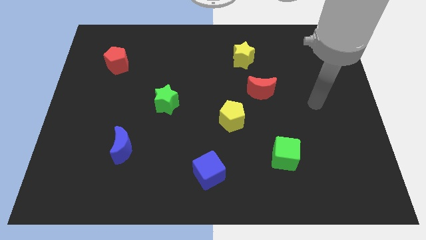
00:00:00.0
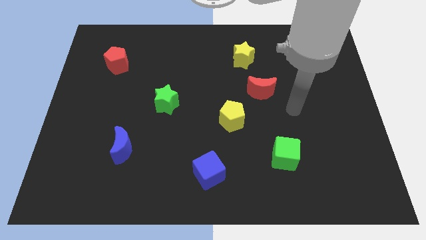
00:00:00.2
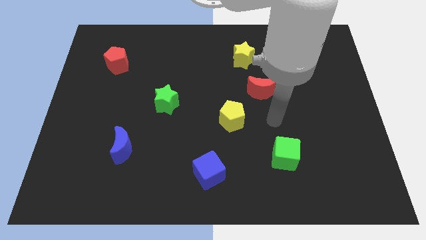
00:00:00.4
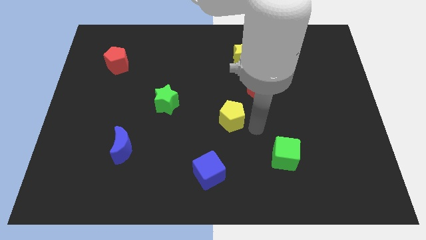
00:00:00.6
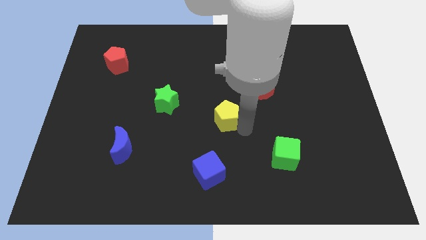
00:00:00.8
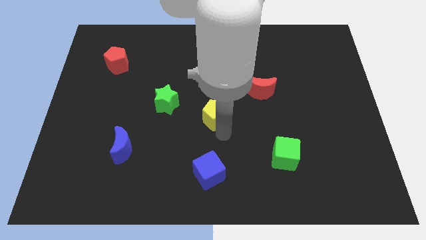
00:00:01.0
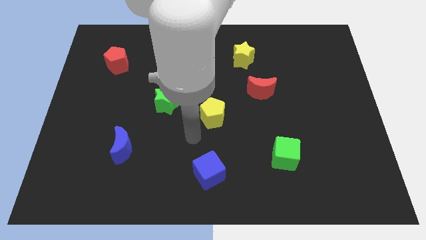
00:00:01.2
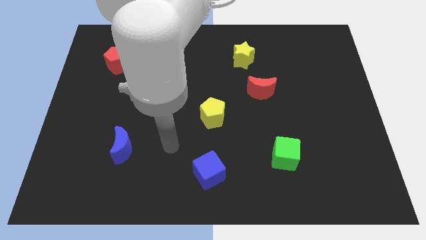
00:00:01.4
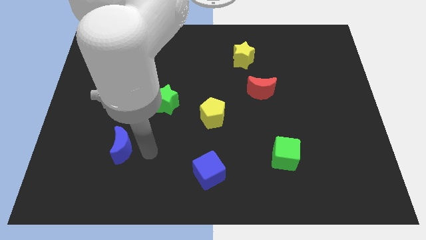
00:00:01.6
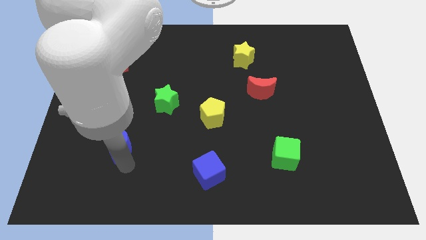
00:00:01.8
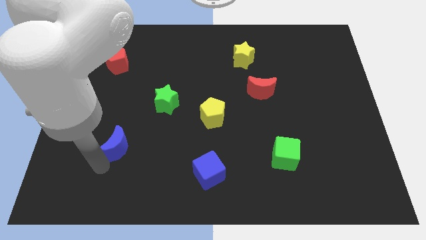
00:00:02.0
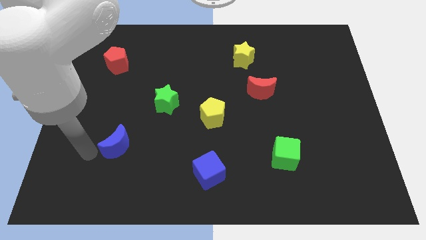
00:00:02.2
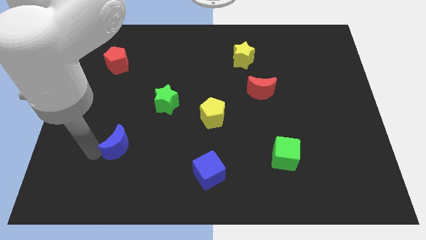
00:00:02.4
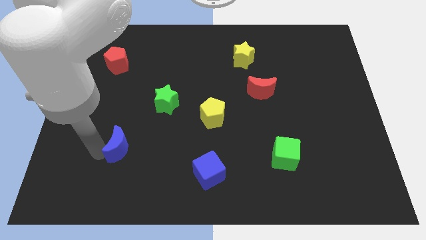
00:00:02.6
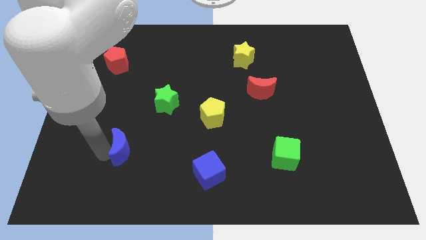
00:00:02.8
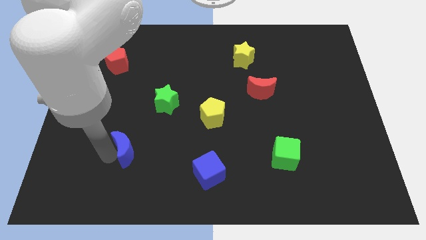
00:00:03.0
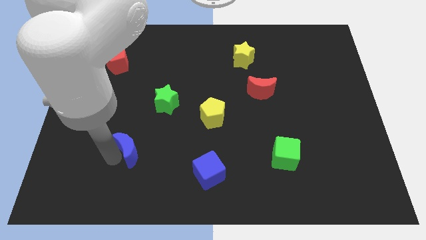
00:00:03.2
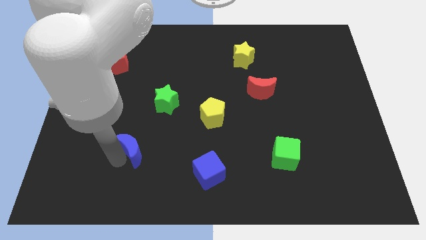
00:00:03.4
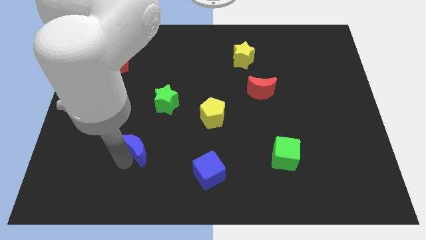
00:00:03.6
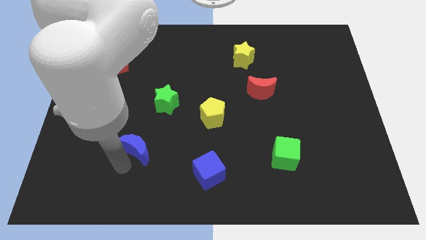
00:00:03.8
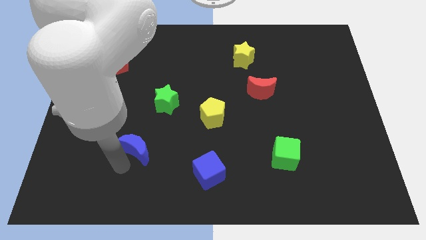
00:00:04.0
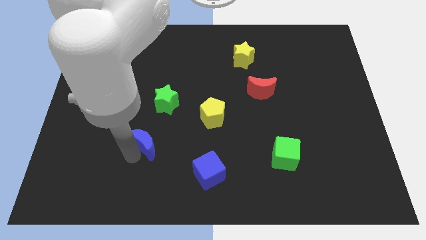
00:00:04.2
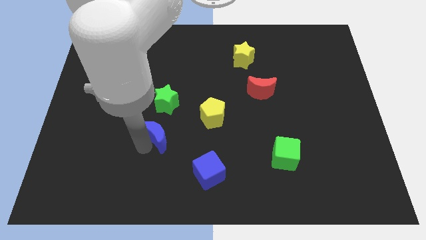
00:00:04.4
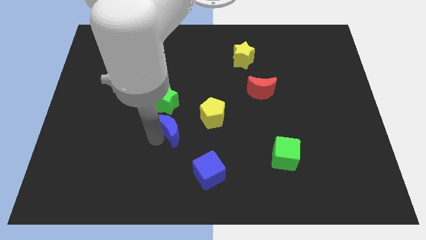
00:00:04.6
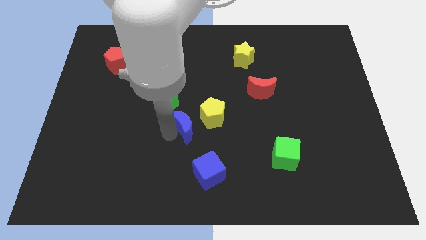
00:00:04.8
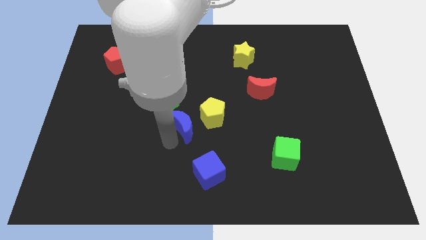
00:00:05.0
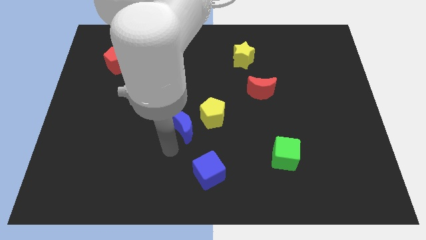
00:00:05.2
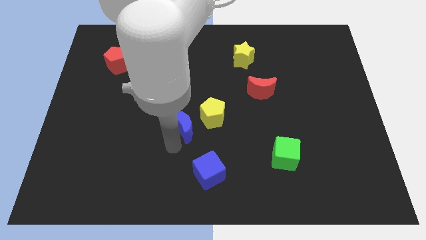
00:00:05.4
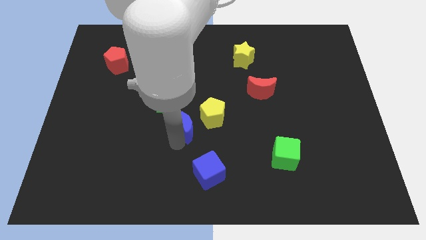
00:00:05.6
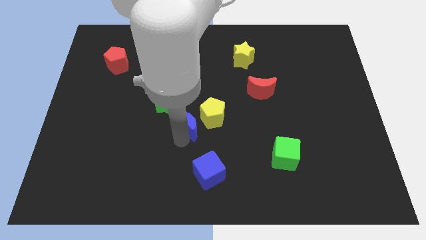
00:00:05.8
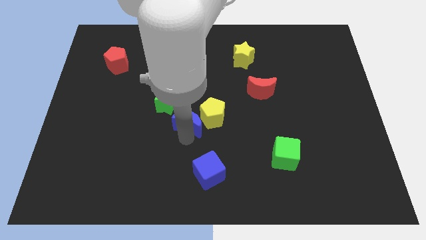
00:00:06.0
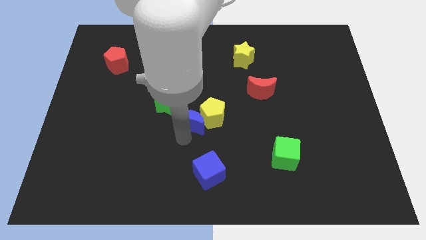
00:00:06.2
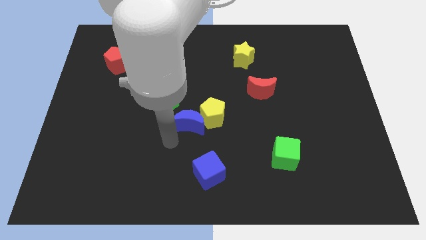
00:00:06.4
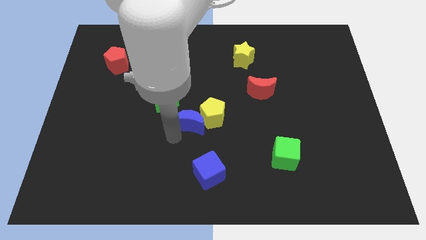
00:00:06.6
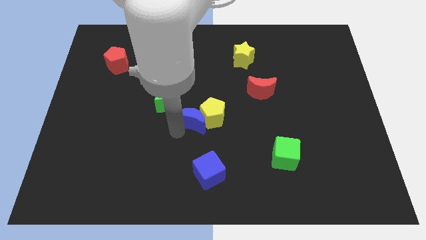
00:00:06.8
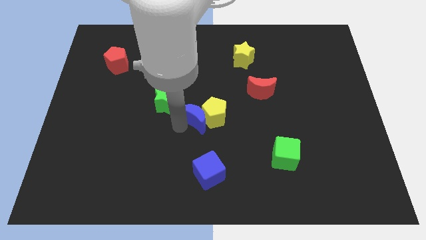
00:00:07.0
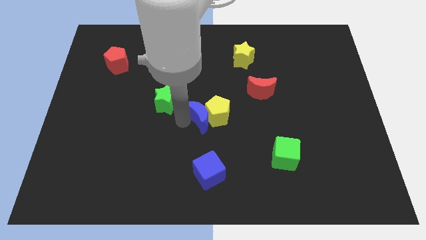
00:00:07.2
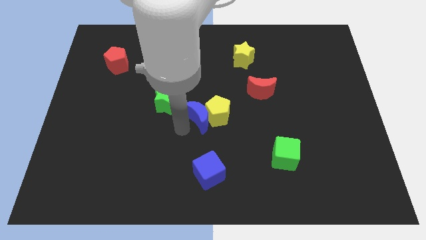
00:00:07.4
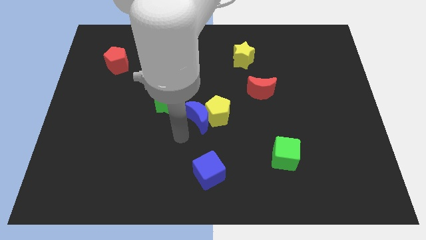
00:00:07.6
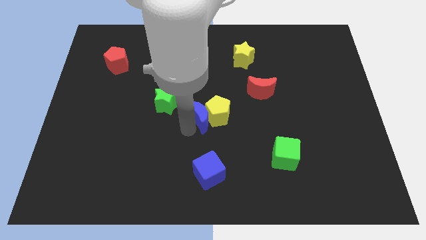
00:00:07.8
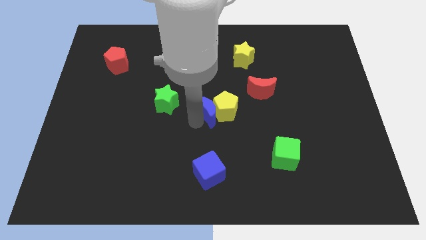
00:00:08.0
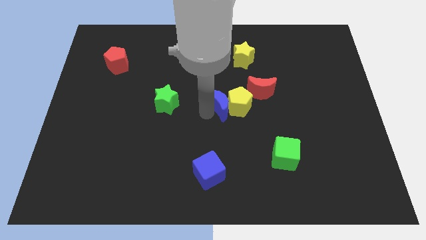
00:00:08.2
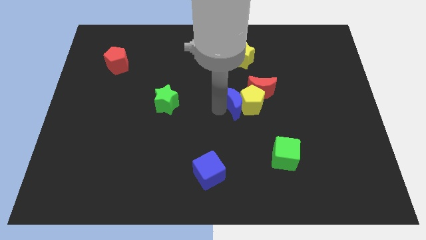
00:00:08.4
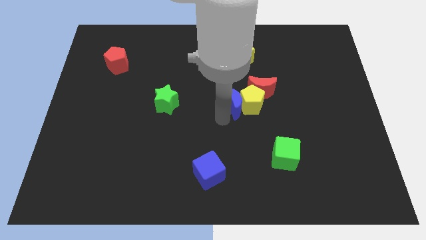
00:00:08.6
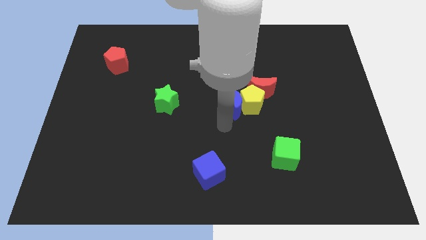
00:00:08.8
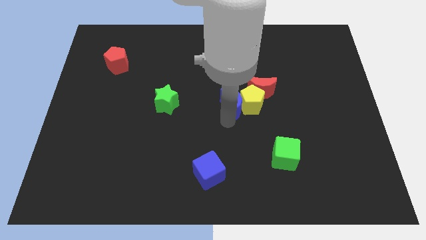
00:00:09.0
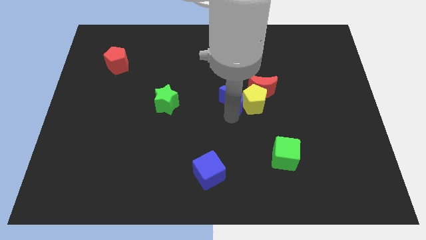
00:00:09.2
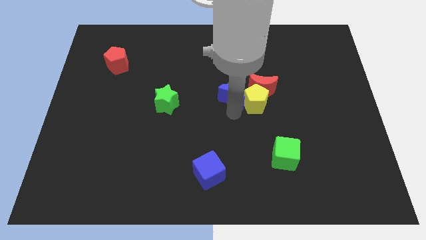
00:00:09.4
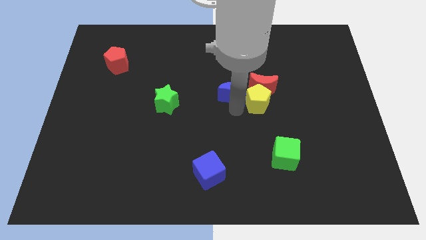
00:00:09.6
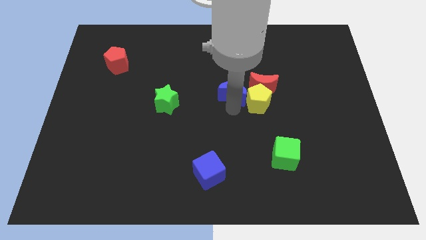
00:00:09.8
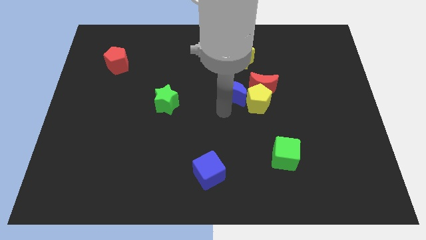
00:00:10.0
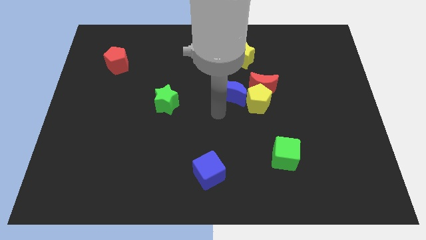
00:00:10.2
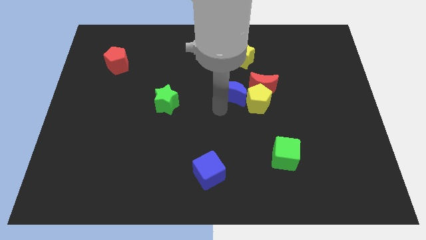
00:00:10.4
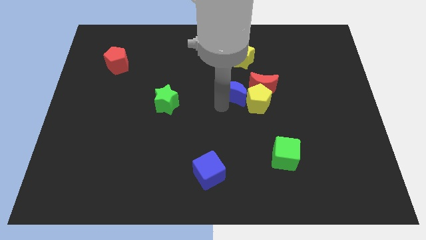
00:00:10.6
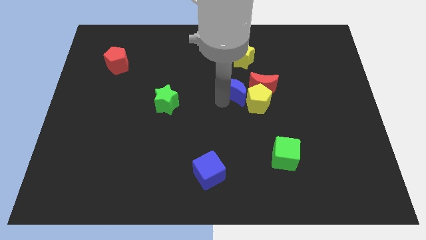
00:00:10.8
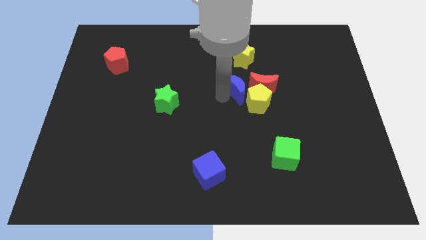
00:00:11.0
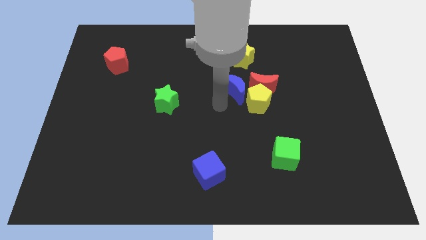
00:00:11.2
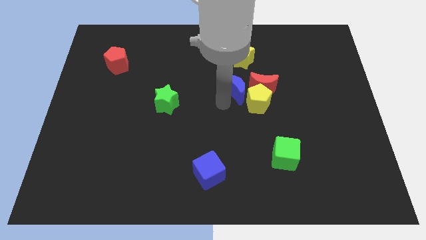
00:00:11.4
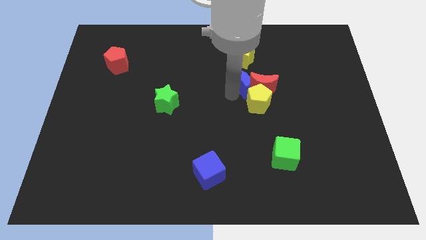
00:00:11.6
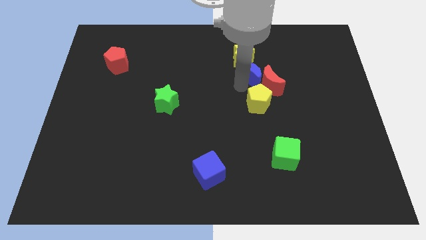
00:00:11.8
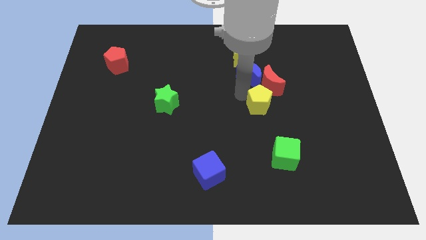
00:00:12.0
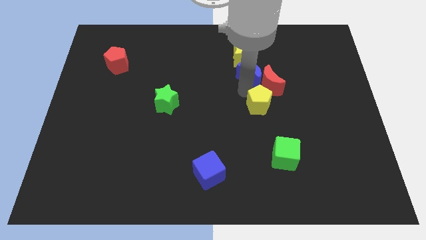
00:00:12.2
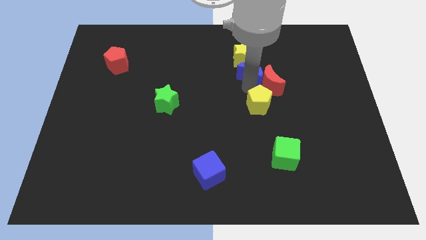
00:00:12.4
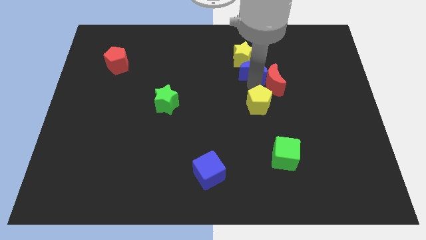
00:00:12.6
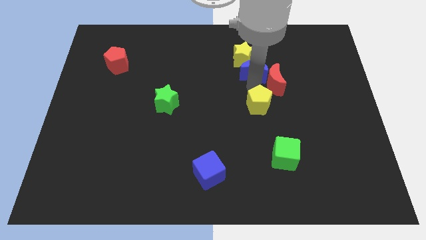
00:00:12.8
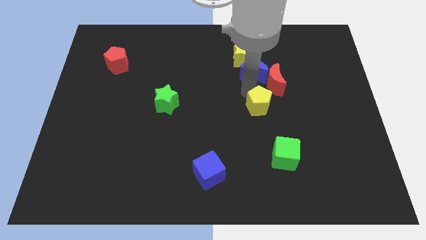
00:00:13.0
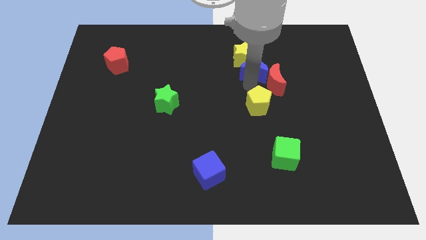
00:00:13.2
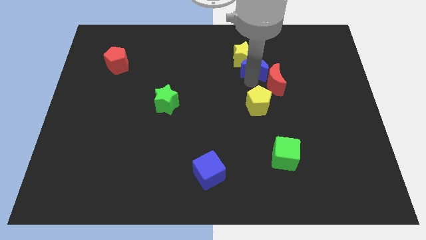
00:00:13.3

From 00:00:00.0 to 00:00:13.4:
move the blue moon to the top side of the red moon

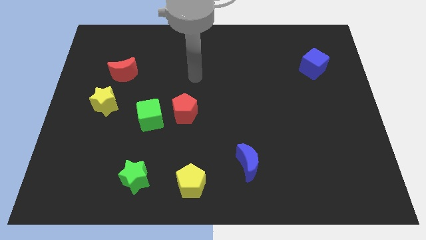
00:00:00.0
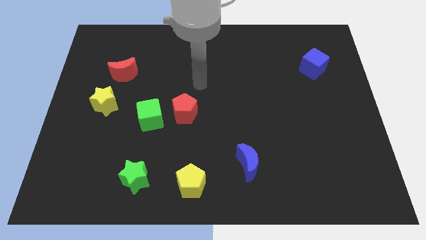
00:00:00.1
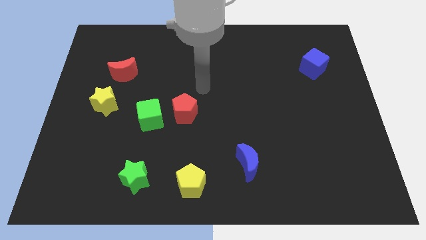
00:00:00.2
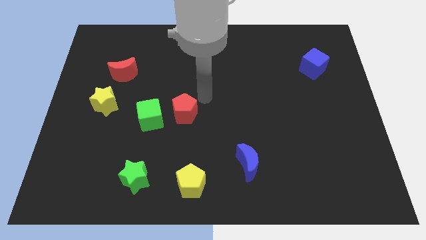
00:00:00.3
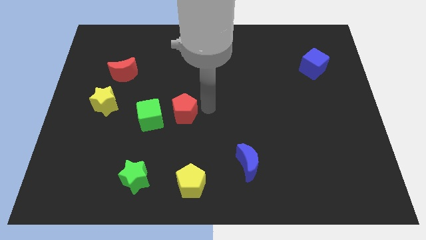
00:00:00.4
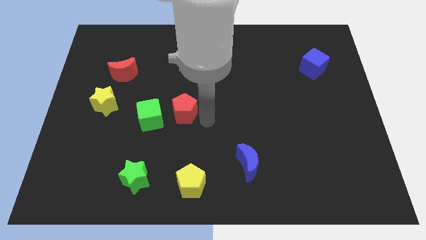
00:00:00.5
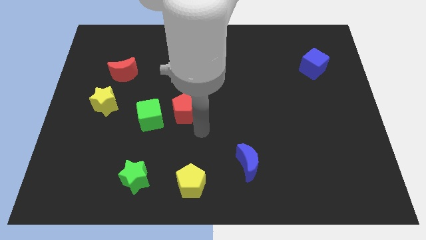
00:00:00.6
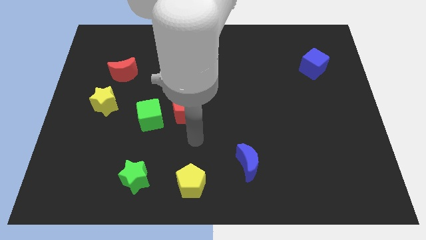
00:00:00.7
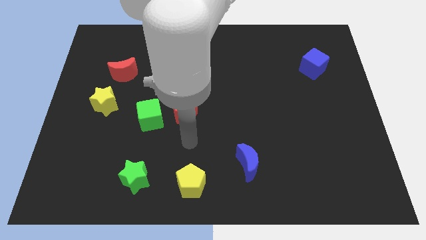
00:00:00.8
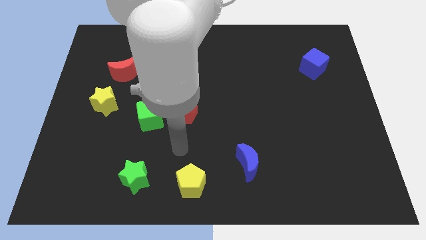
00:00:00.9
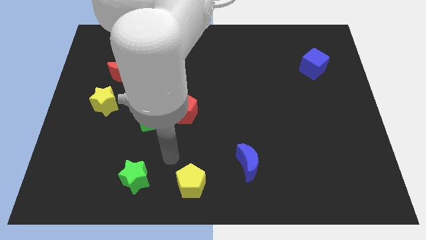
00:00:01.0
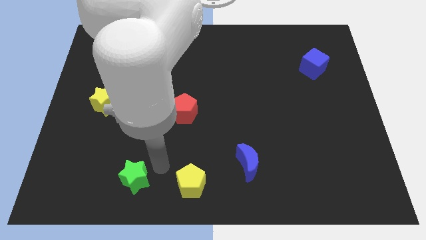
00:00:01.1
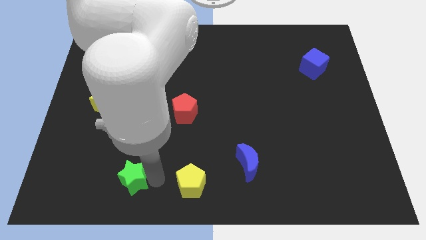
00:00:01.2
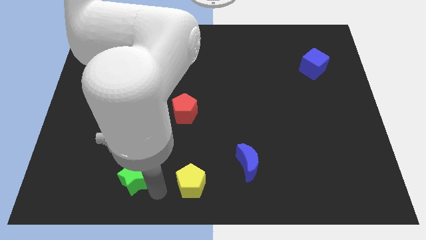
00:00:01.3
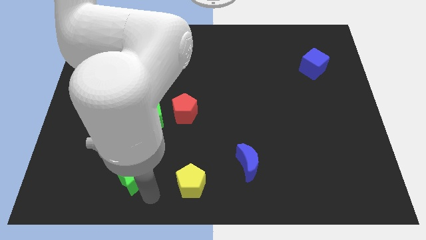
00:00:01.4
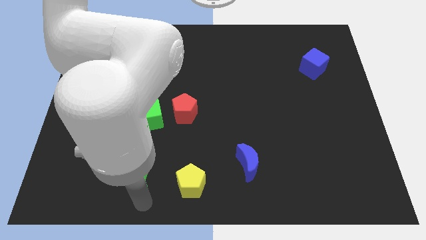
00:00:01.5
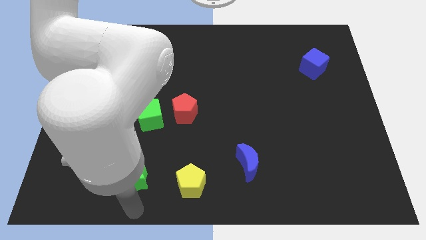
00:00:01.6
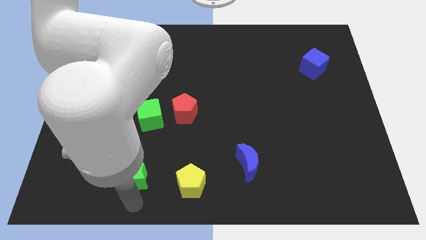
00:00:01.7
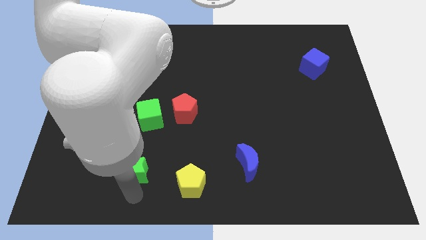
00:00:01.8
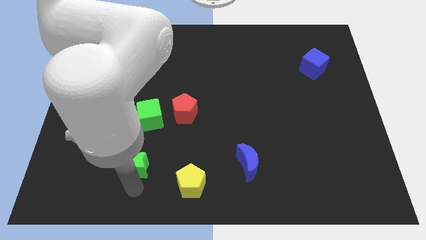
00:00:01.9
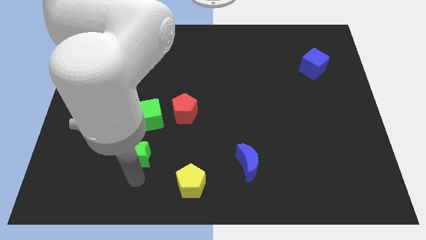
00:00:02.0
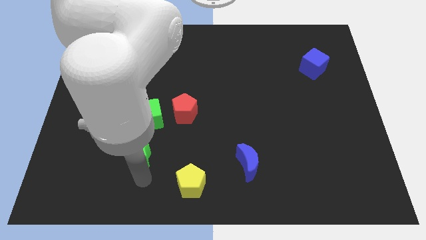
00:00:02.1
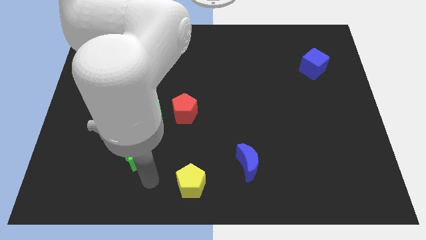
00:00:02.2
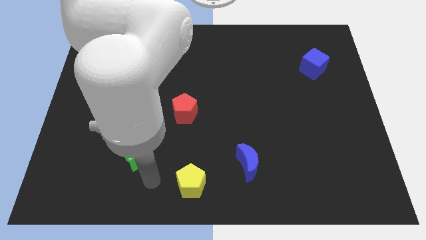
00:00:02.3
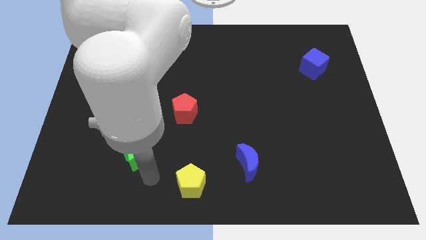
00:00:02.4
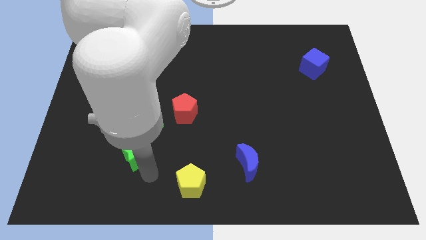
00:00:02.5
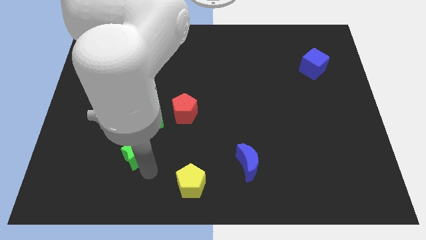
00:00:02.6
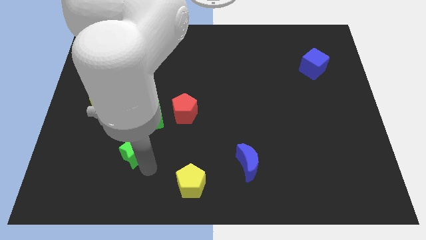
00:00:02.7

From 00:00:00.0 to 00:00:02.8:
push the green star to the bottom left of the green cube
